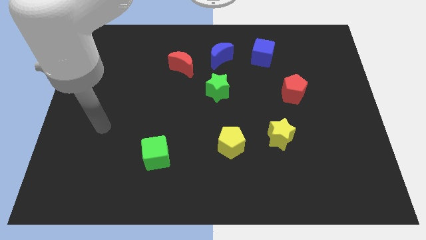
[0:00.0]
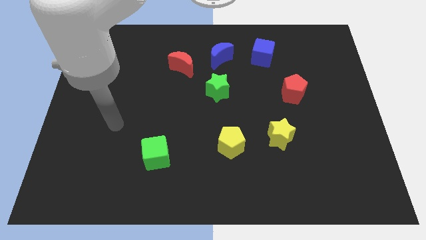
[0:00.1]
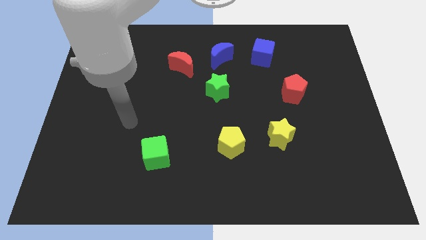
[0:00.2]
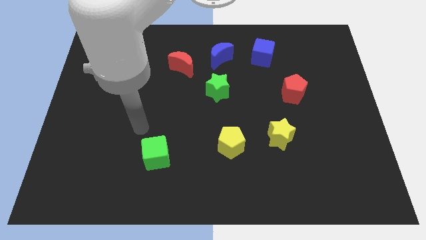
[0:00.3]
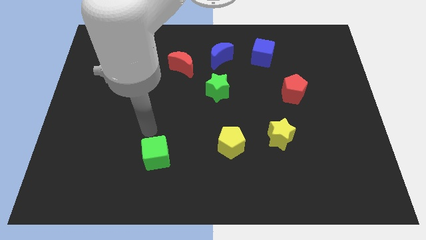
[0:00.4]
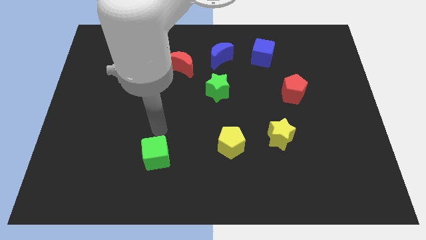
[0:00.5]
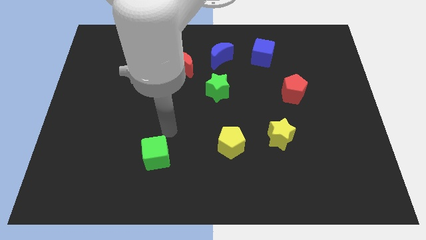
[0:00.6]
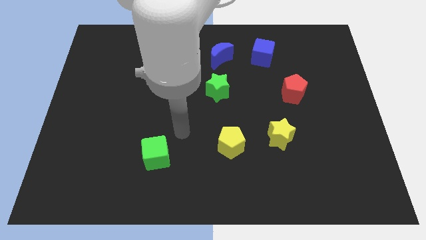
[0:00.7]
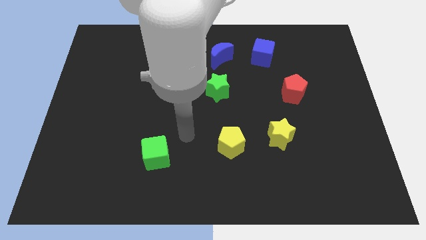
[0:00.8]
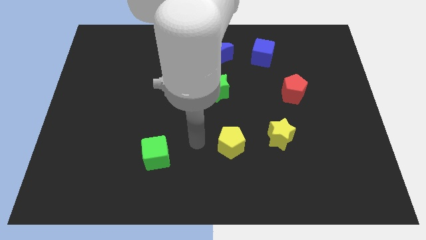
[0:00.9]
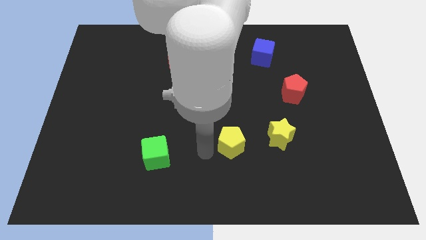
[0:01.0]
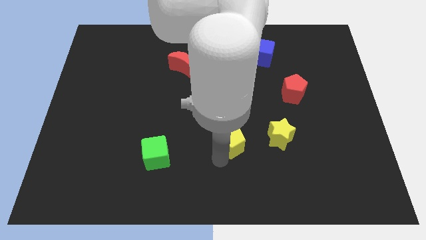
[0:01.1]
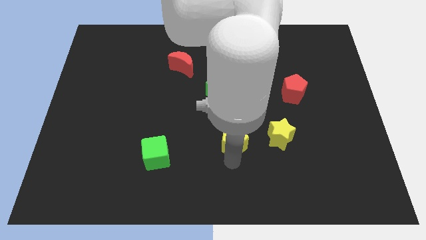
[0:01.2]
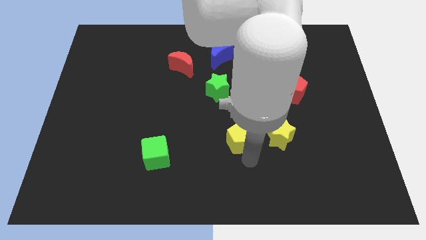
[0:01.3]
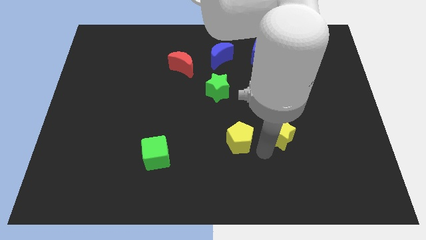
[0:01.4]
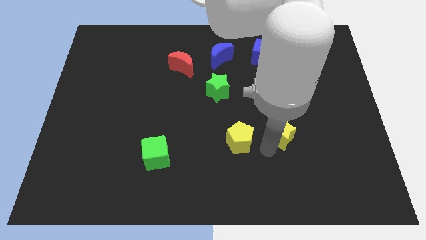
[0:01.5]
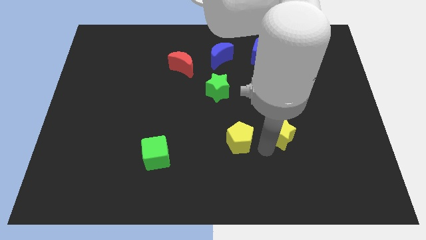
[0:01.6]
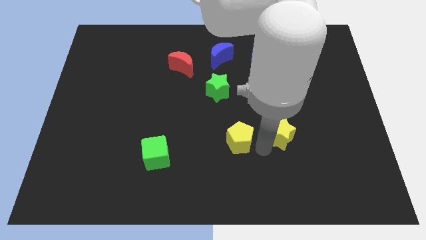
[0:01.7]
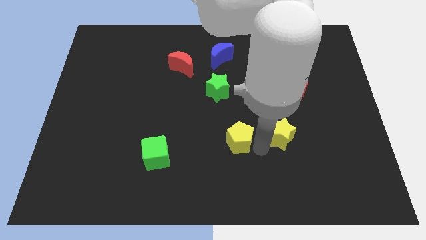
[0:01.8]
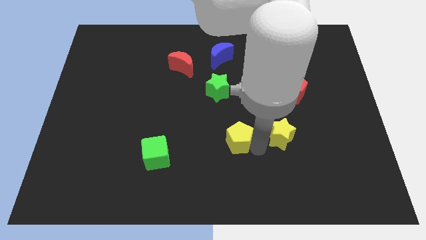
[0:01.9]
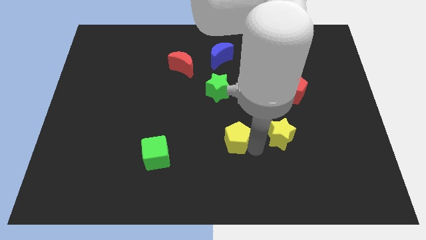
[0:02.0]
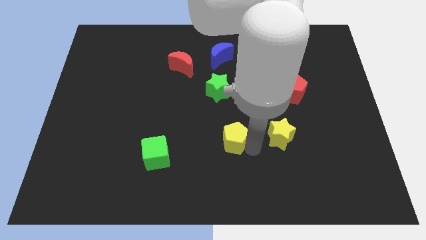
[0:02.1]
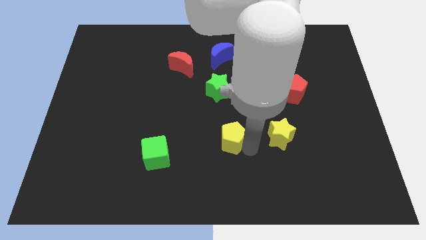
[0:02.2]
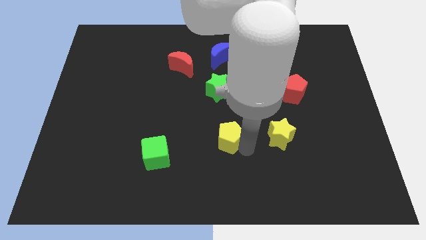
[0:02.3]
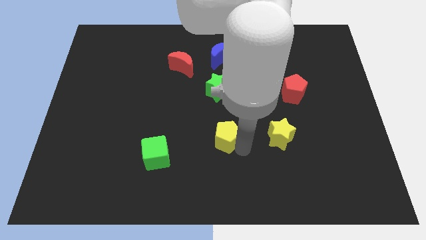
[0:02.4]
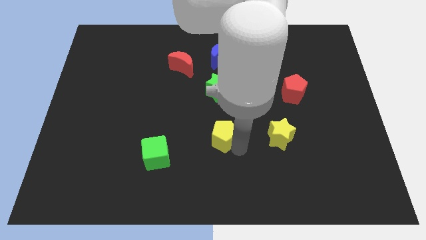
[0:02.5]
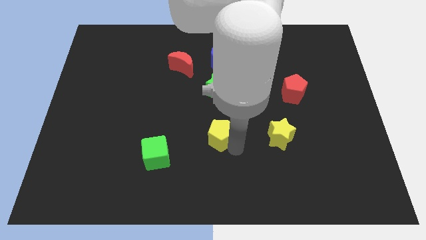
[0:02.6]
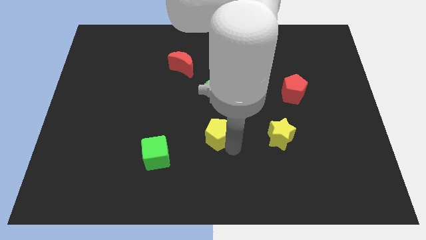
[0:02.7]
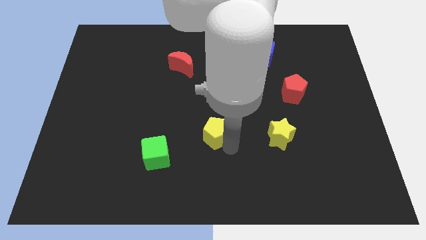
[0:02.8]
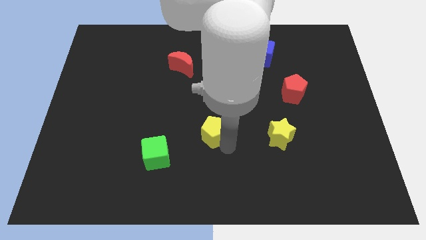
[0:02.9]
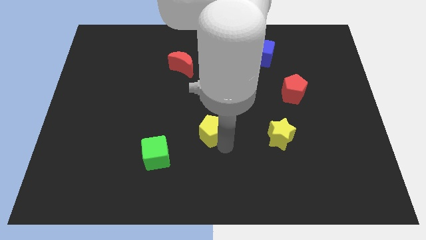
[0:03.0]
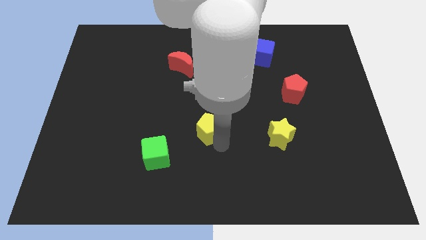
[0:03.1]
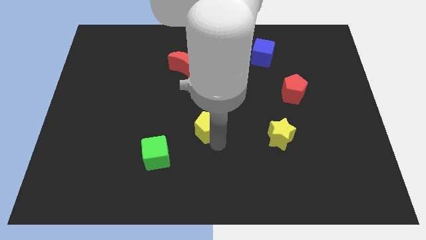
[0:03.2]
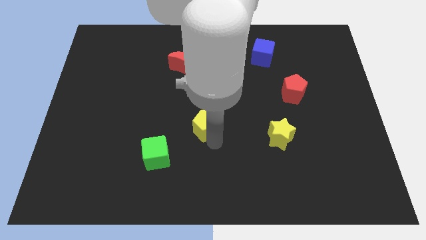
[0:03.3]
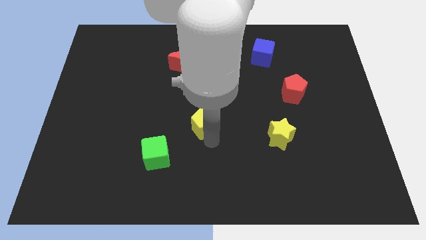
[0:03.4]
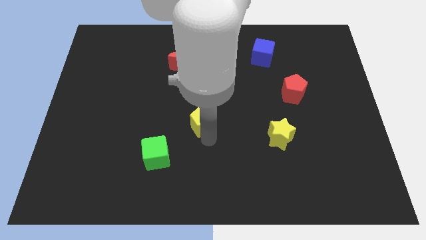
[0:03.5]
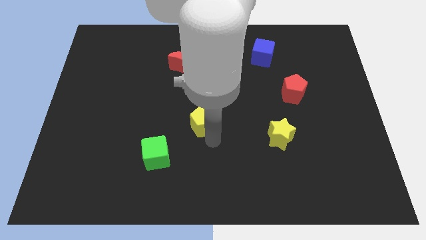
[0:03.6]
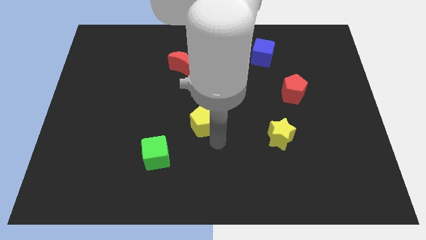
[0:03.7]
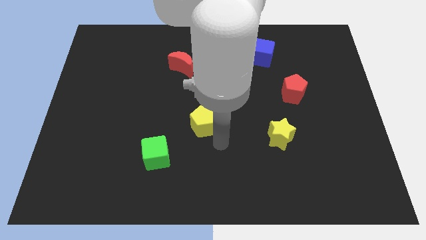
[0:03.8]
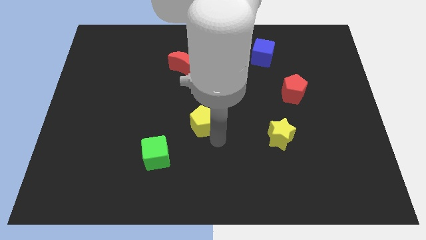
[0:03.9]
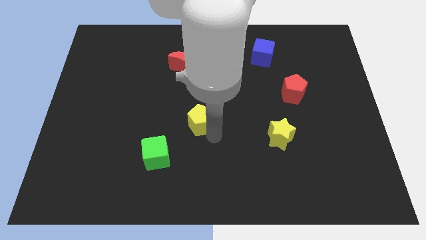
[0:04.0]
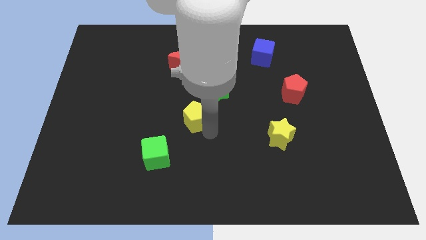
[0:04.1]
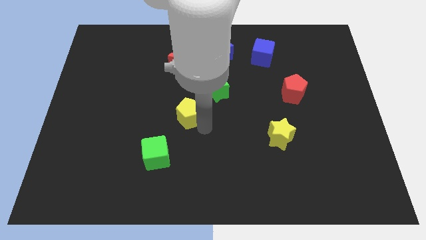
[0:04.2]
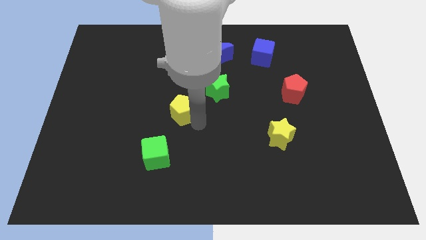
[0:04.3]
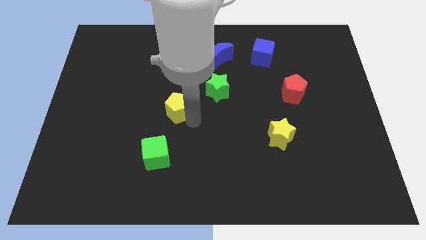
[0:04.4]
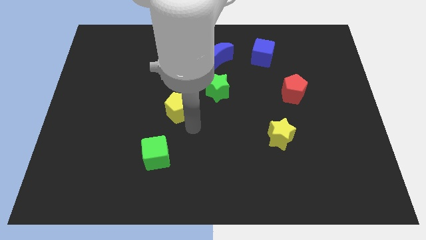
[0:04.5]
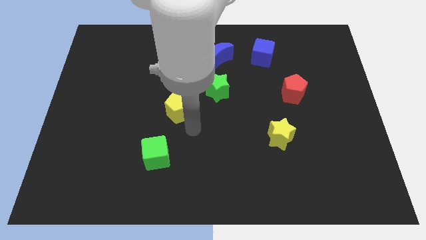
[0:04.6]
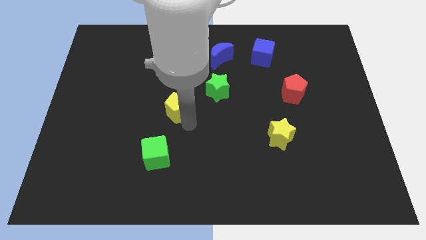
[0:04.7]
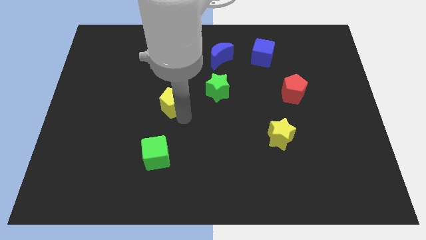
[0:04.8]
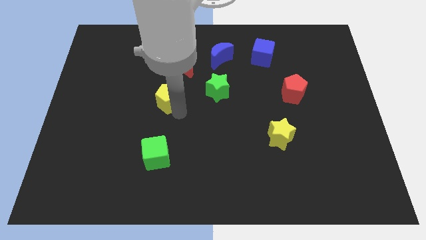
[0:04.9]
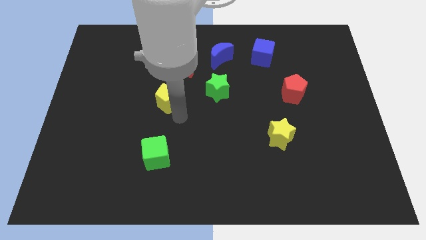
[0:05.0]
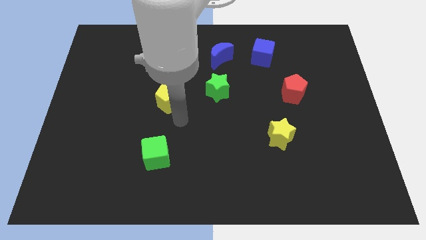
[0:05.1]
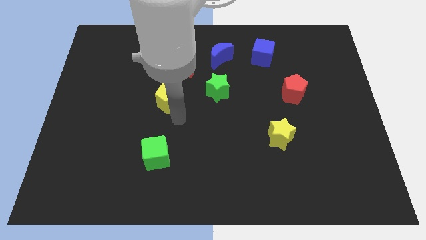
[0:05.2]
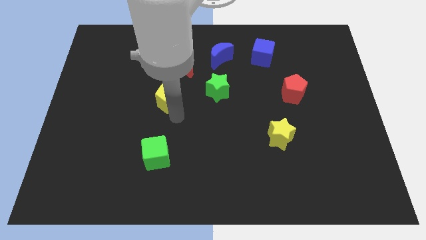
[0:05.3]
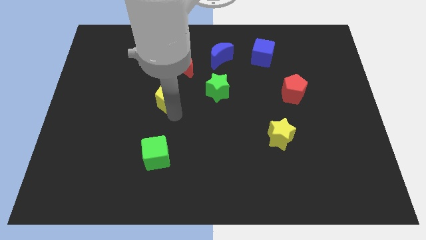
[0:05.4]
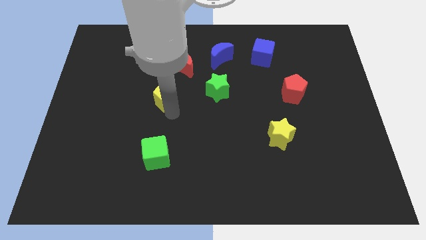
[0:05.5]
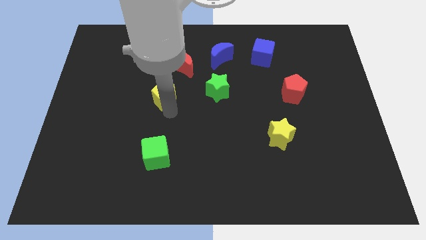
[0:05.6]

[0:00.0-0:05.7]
push the yellow pentagon diagonally up and to the left

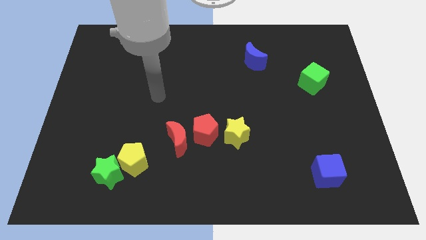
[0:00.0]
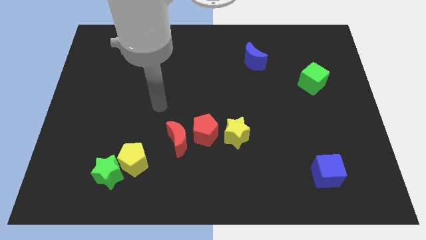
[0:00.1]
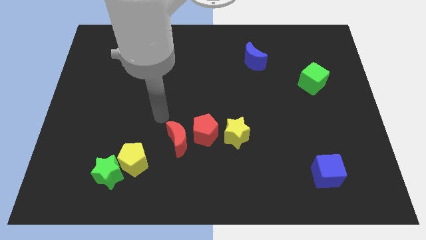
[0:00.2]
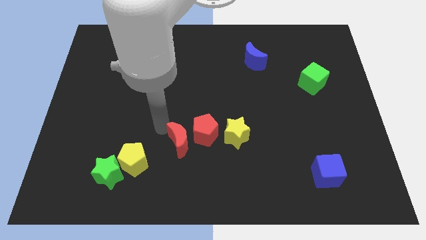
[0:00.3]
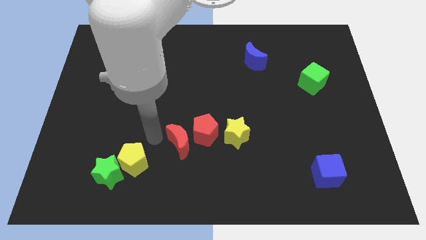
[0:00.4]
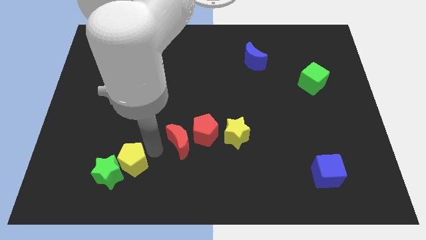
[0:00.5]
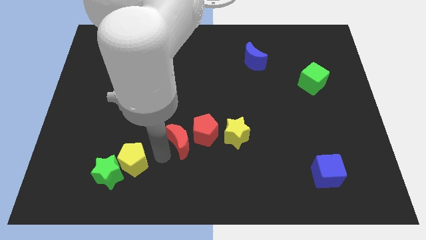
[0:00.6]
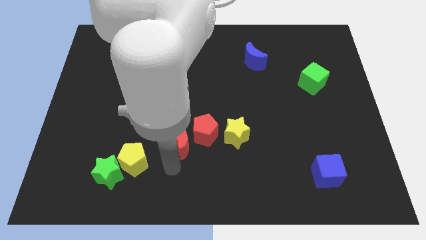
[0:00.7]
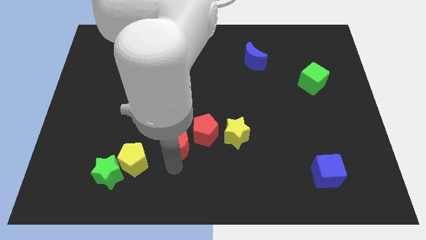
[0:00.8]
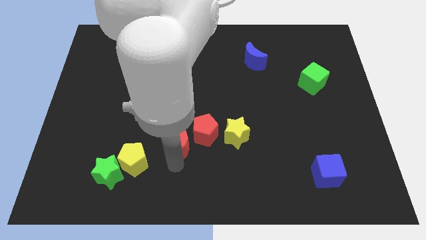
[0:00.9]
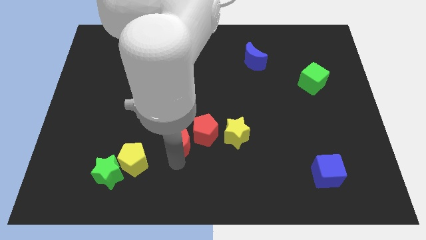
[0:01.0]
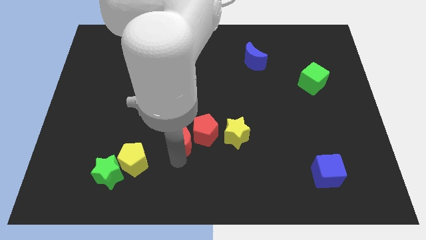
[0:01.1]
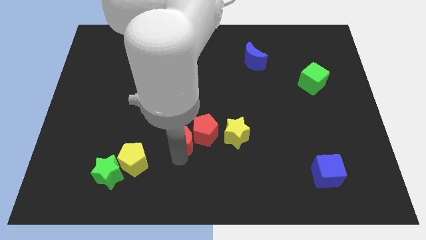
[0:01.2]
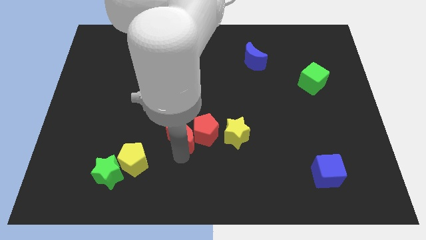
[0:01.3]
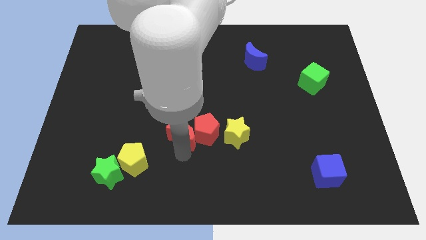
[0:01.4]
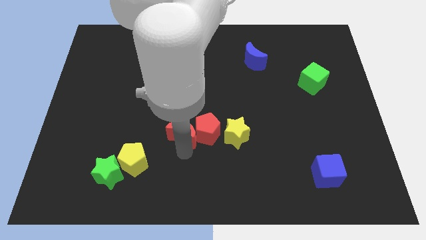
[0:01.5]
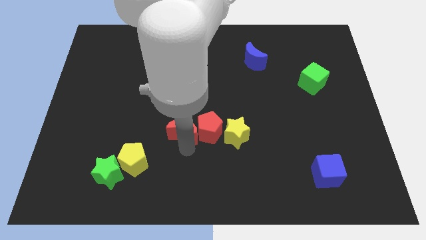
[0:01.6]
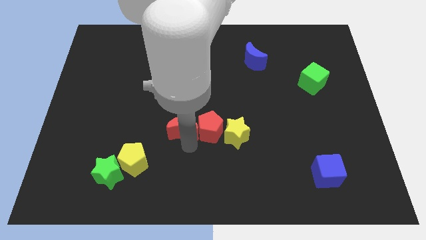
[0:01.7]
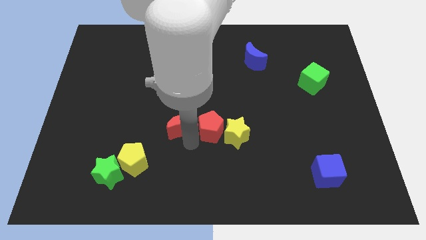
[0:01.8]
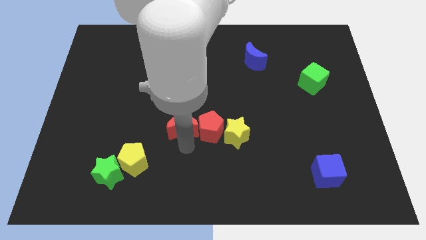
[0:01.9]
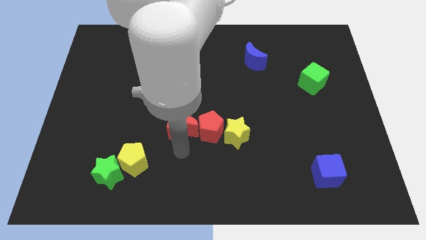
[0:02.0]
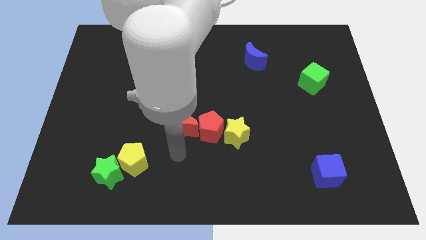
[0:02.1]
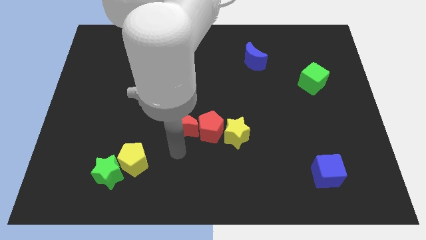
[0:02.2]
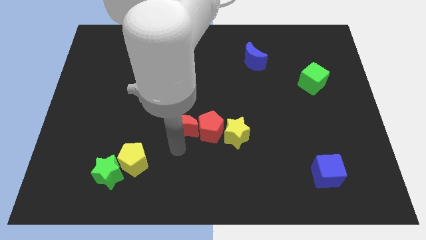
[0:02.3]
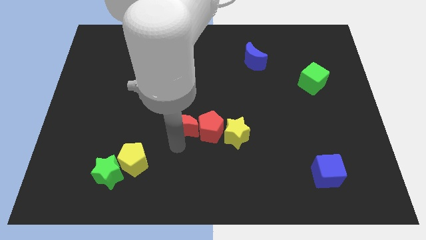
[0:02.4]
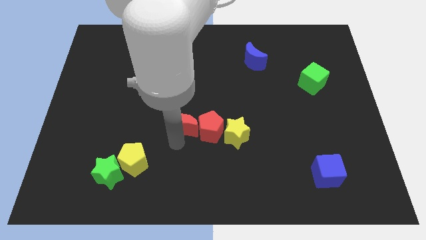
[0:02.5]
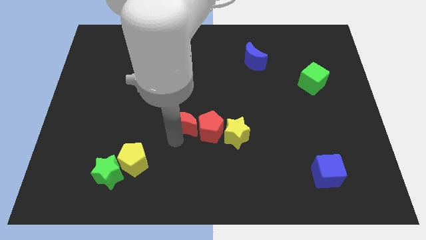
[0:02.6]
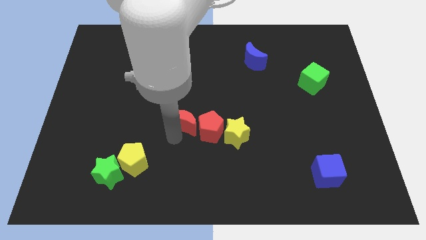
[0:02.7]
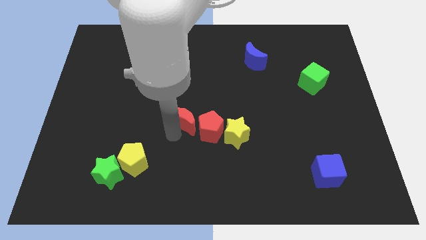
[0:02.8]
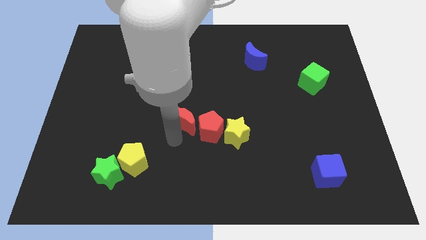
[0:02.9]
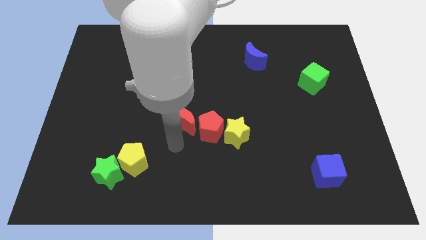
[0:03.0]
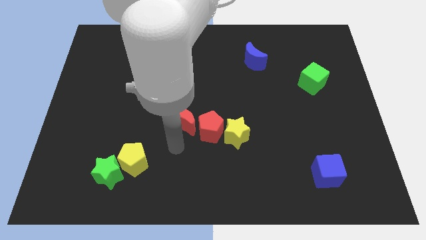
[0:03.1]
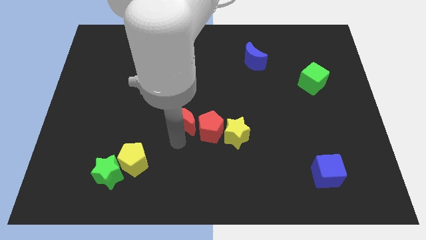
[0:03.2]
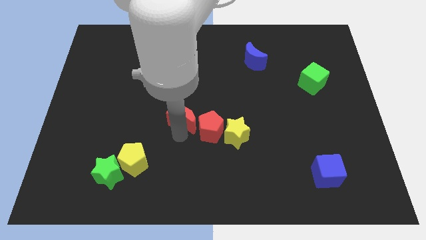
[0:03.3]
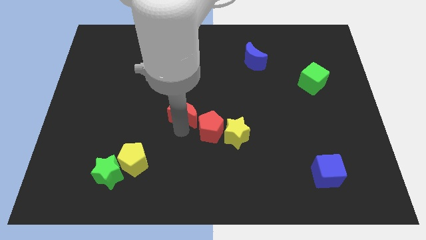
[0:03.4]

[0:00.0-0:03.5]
slightly move the red moon up
